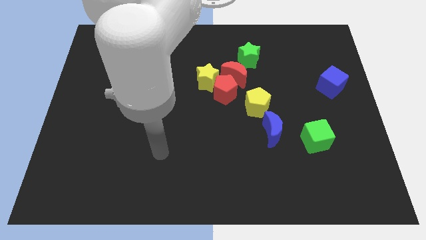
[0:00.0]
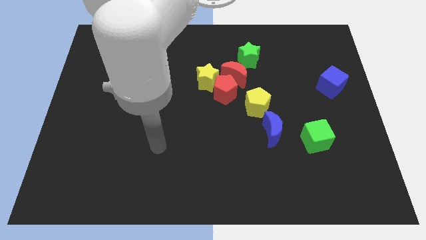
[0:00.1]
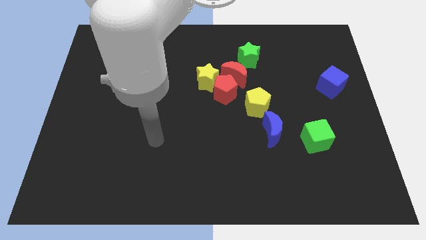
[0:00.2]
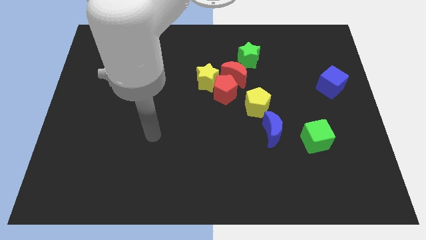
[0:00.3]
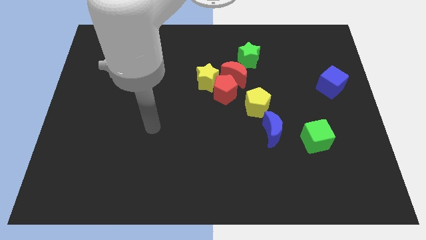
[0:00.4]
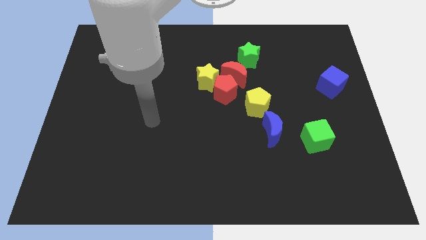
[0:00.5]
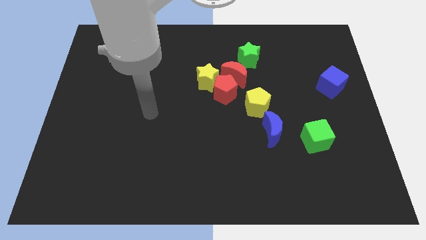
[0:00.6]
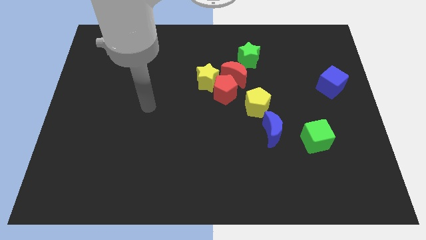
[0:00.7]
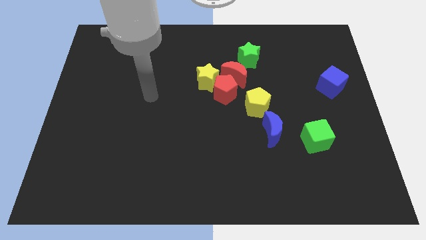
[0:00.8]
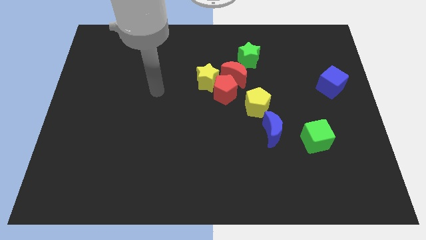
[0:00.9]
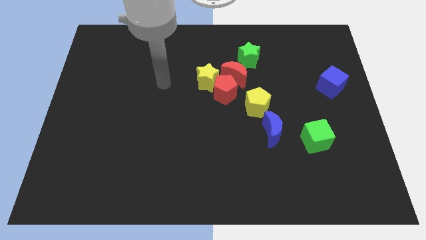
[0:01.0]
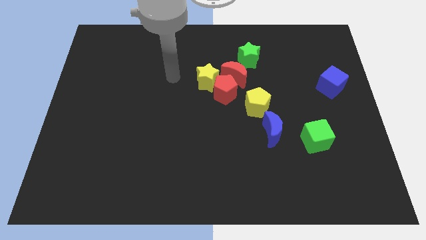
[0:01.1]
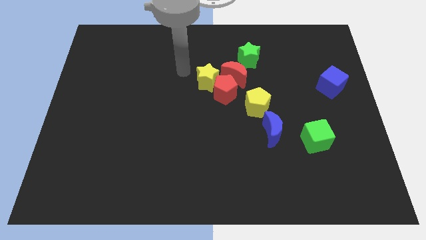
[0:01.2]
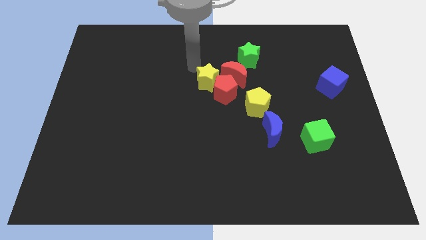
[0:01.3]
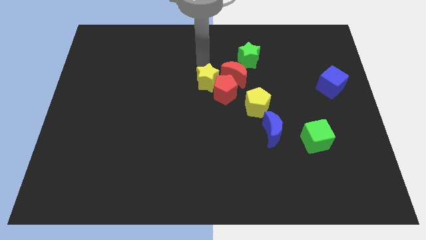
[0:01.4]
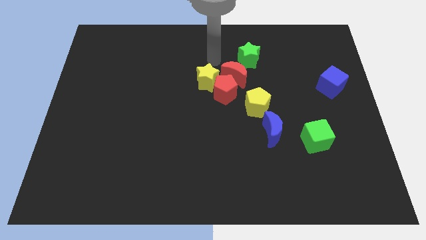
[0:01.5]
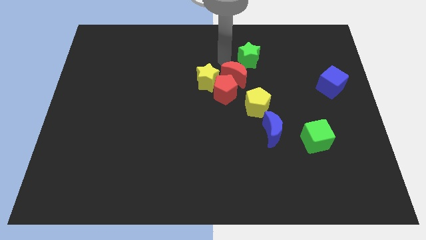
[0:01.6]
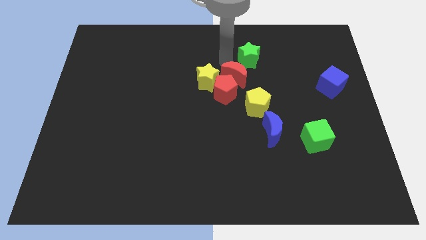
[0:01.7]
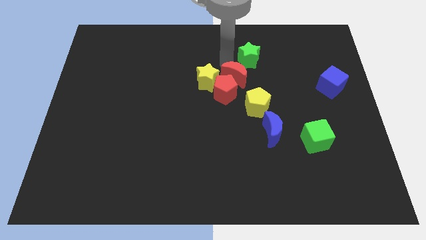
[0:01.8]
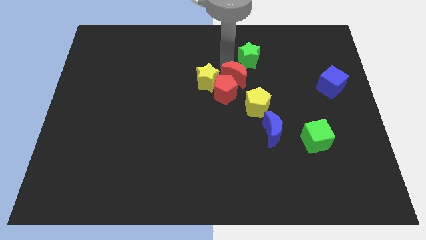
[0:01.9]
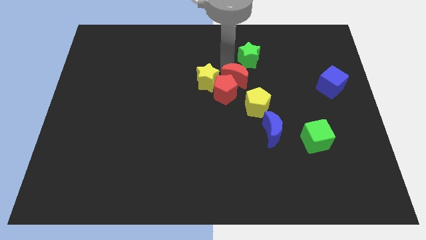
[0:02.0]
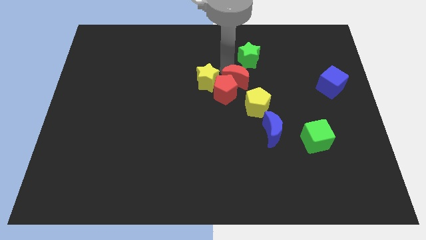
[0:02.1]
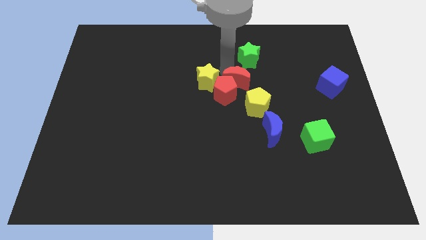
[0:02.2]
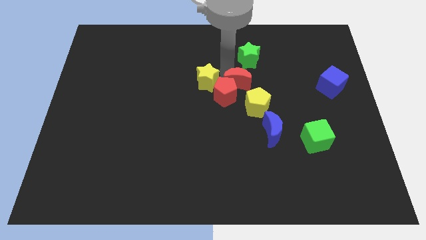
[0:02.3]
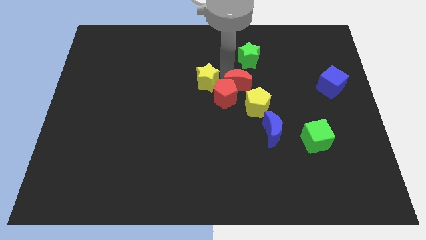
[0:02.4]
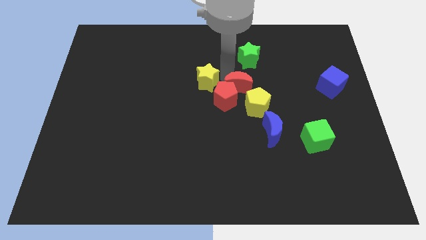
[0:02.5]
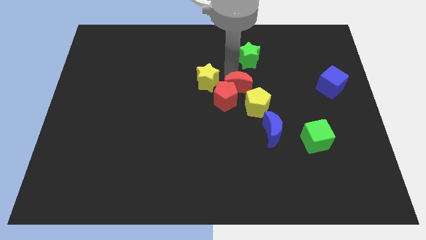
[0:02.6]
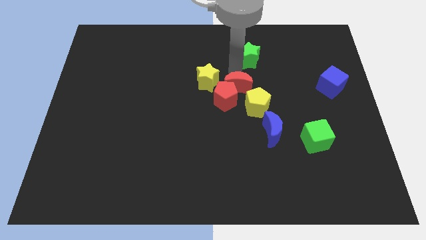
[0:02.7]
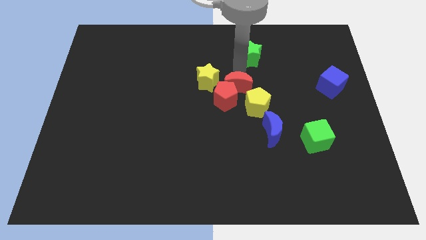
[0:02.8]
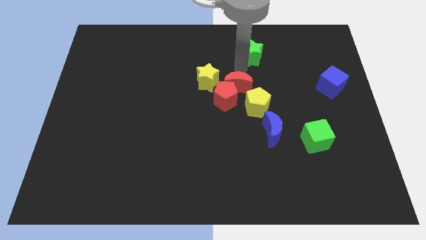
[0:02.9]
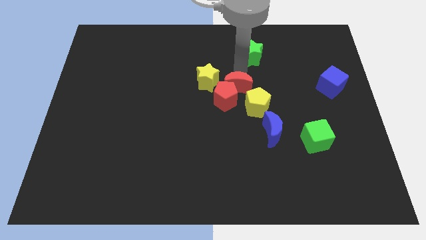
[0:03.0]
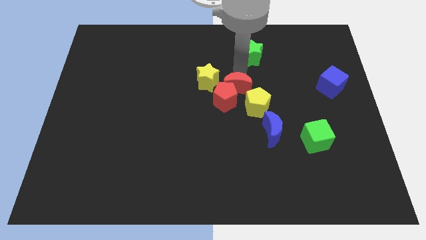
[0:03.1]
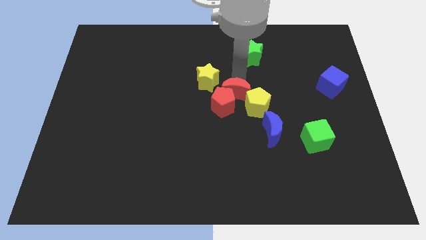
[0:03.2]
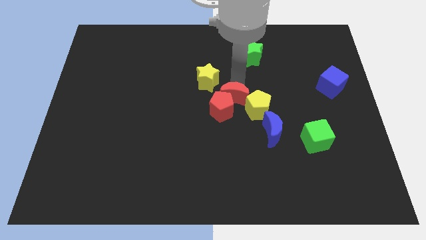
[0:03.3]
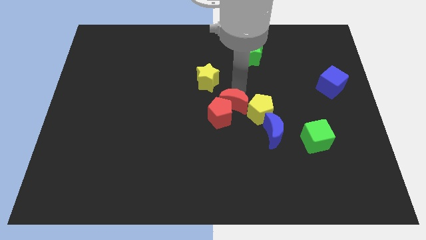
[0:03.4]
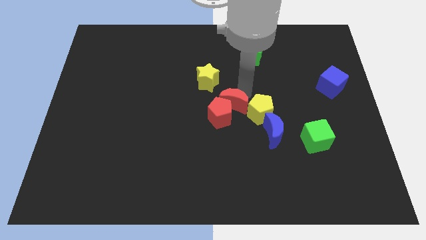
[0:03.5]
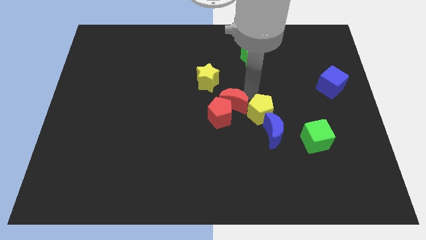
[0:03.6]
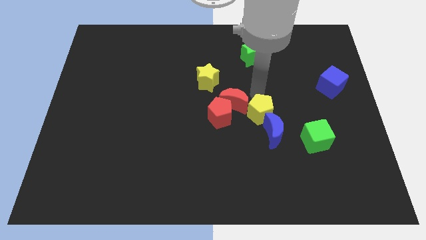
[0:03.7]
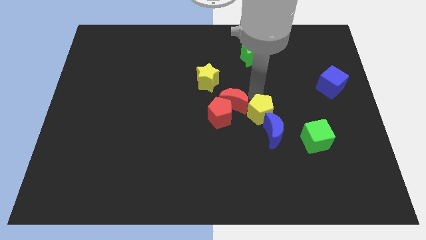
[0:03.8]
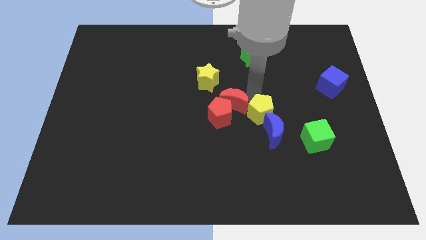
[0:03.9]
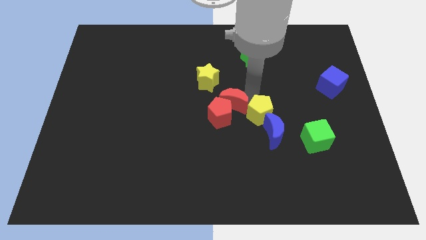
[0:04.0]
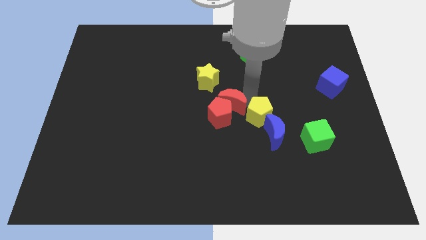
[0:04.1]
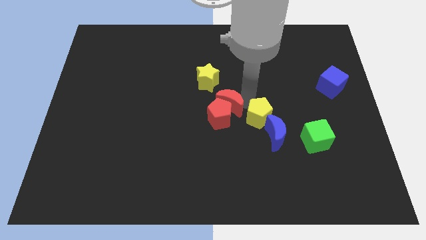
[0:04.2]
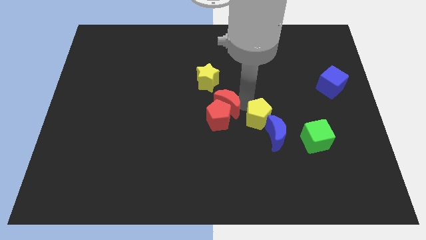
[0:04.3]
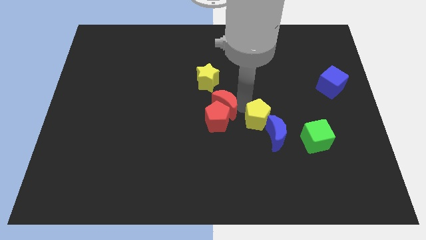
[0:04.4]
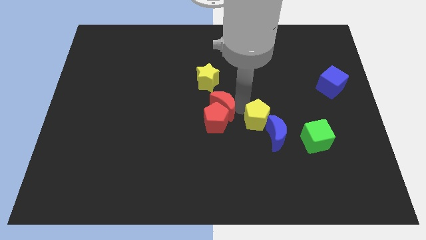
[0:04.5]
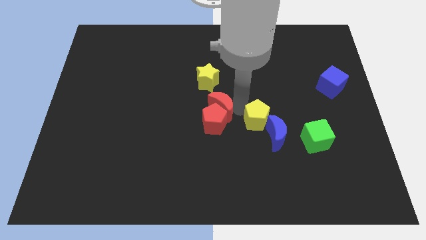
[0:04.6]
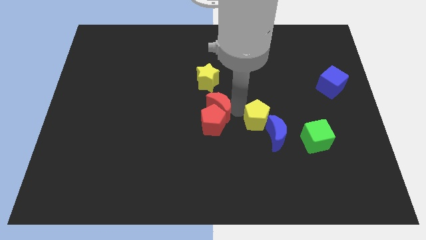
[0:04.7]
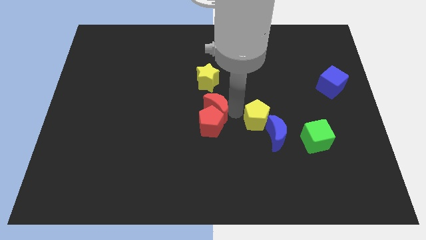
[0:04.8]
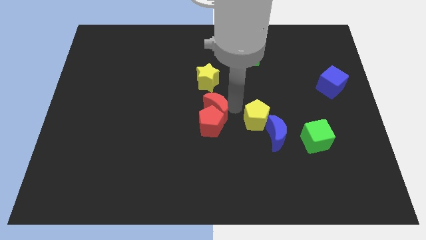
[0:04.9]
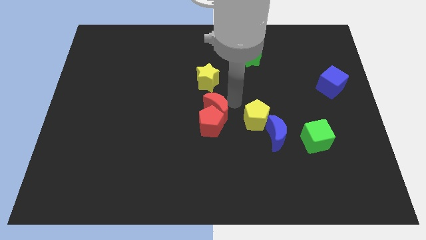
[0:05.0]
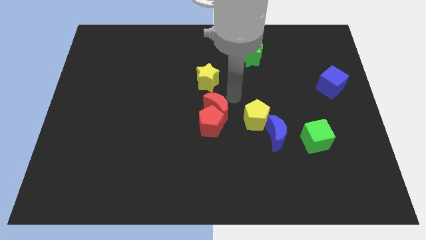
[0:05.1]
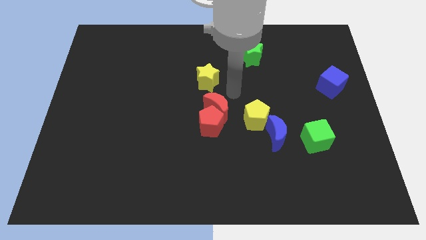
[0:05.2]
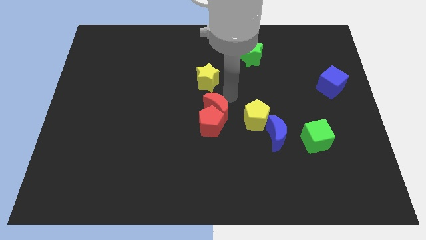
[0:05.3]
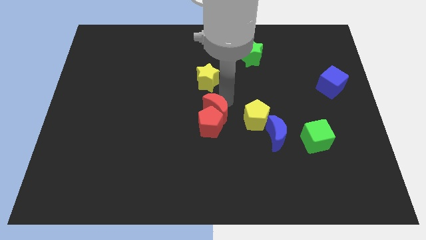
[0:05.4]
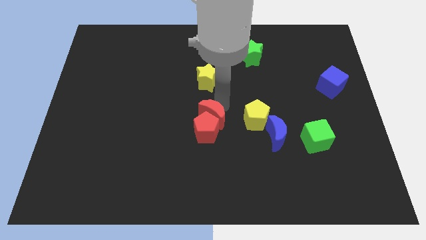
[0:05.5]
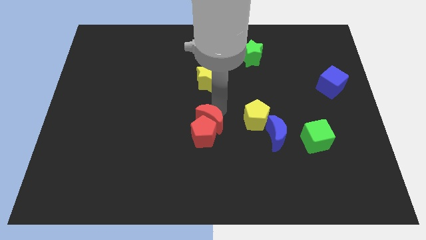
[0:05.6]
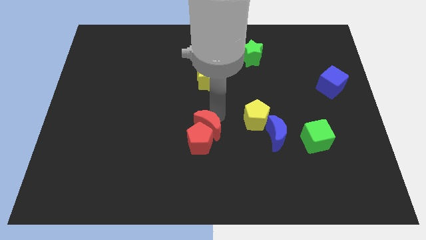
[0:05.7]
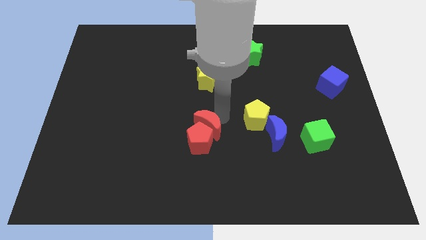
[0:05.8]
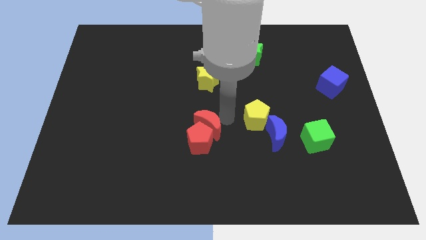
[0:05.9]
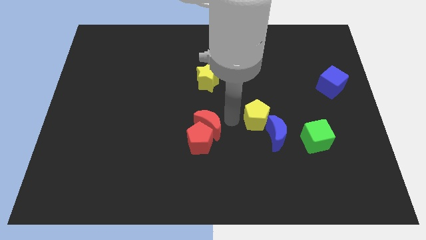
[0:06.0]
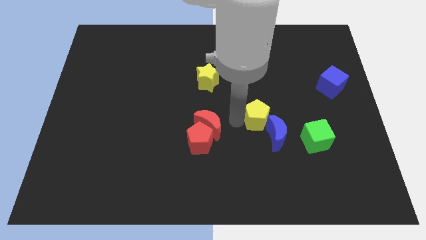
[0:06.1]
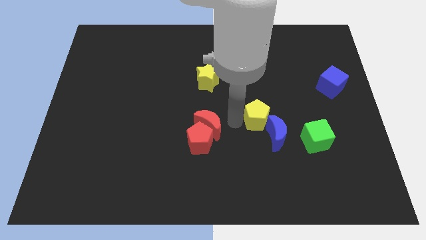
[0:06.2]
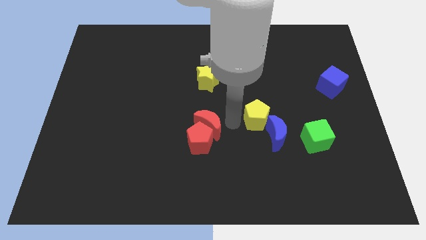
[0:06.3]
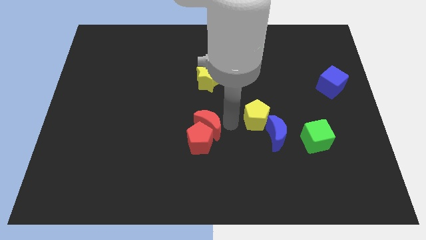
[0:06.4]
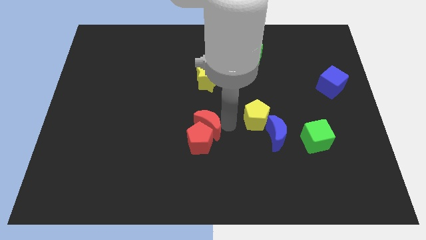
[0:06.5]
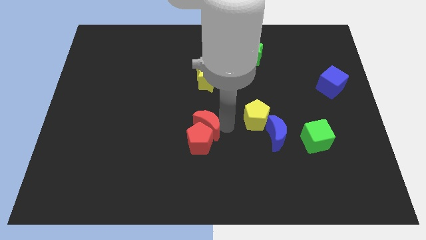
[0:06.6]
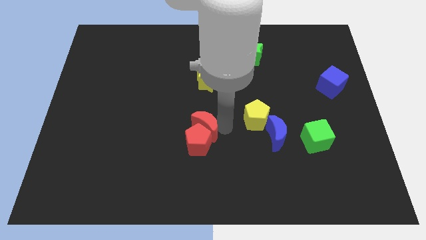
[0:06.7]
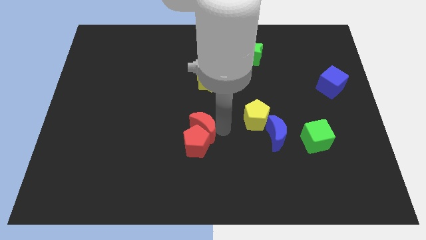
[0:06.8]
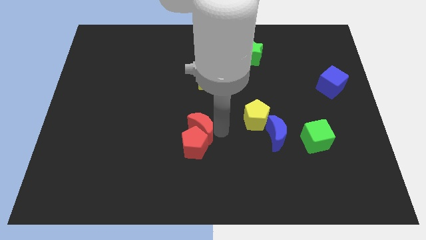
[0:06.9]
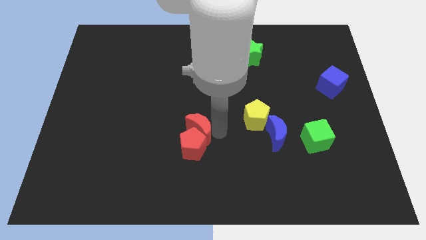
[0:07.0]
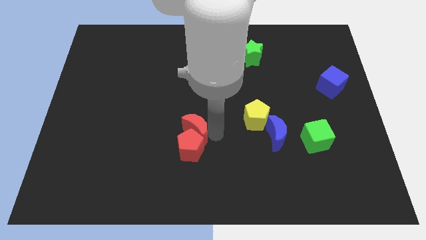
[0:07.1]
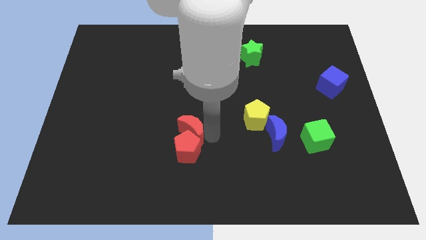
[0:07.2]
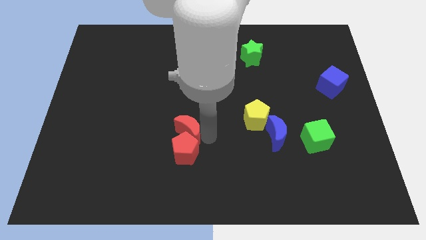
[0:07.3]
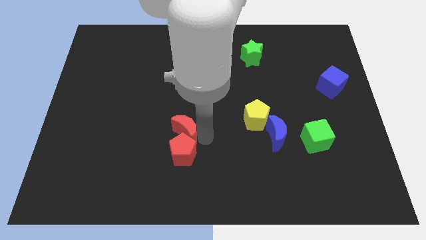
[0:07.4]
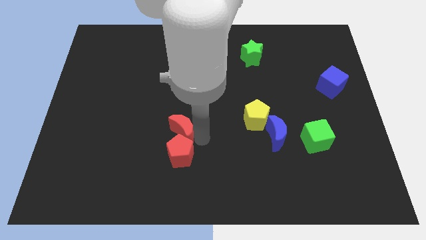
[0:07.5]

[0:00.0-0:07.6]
slide the red moon downwards and then to the left

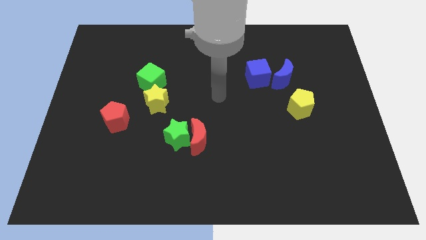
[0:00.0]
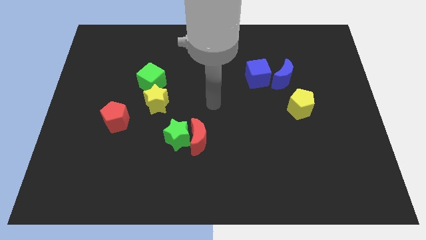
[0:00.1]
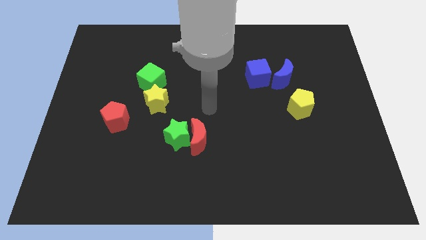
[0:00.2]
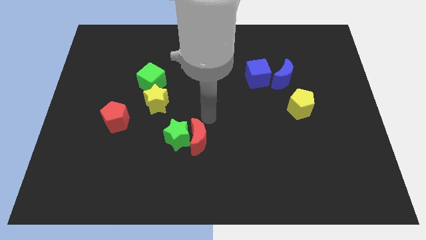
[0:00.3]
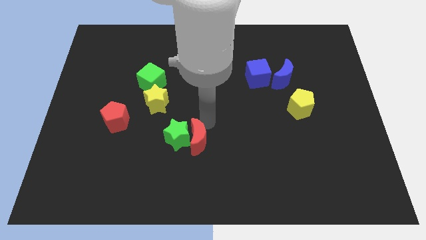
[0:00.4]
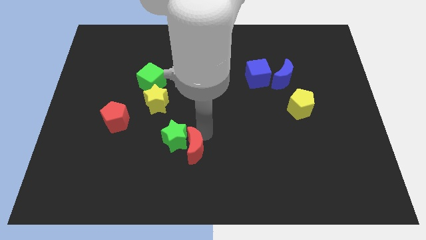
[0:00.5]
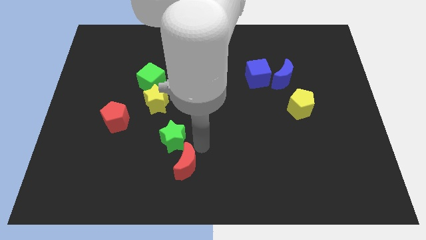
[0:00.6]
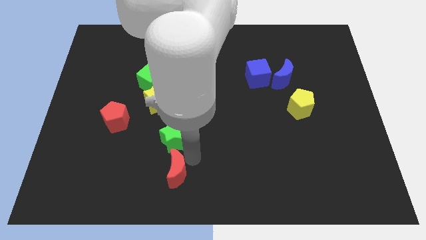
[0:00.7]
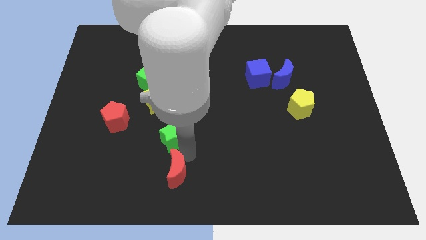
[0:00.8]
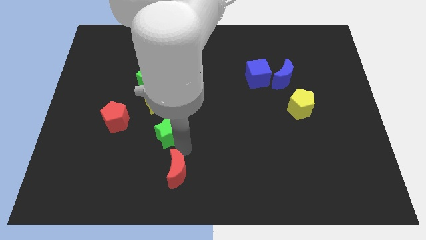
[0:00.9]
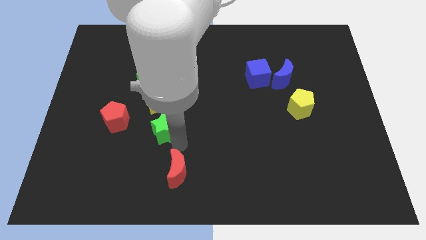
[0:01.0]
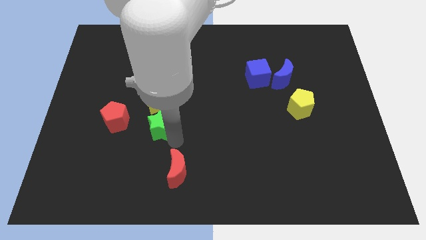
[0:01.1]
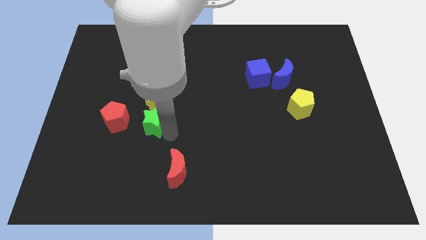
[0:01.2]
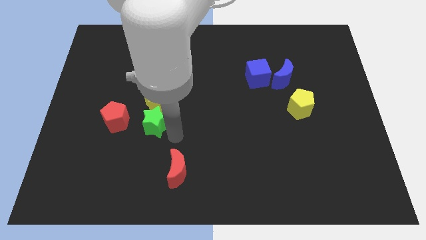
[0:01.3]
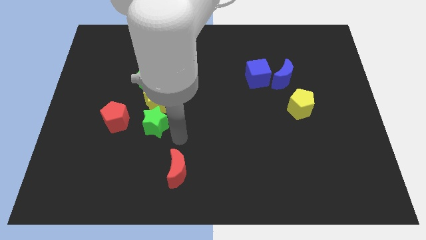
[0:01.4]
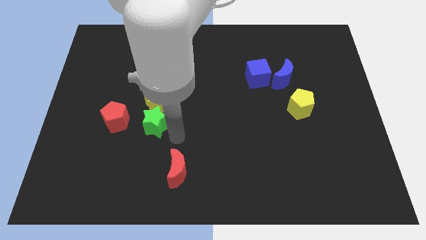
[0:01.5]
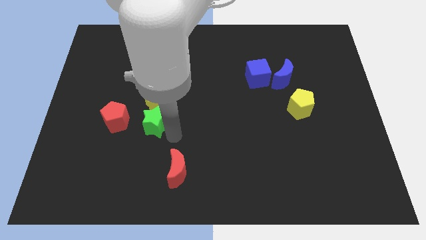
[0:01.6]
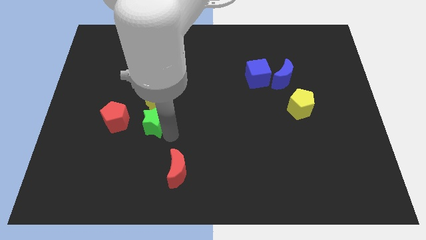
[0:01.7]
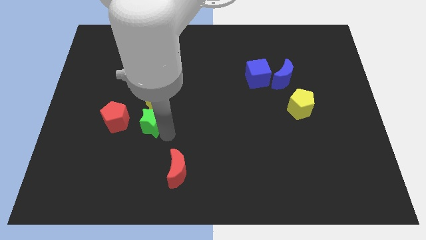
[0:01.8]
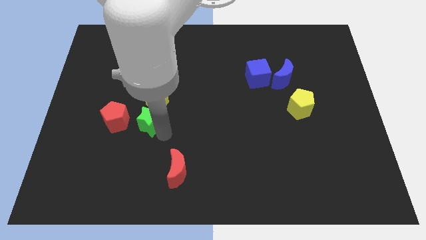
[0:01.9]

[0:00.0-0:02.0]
slide the green star up and then left a little
